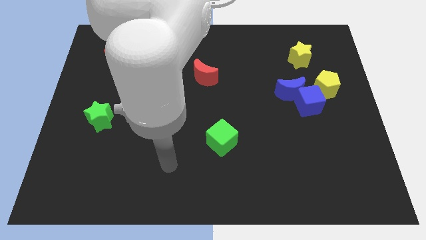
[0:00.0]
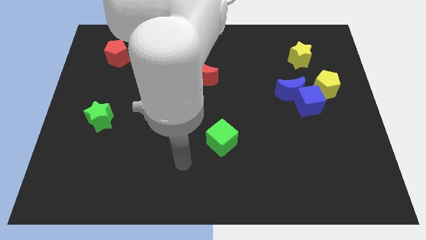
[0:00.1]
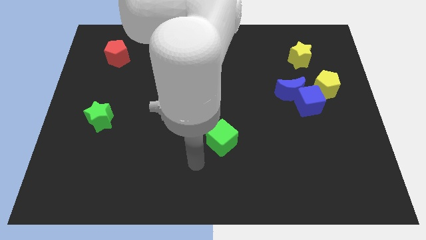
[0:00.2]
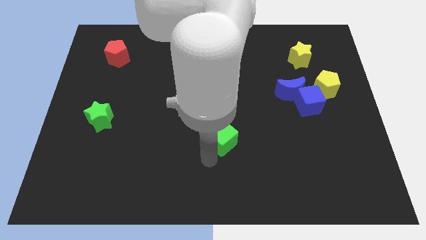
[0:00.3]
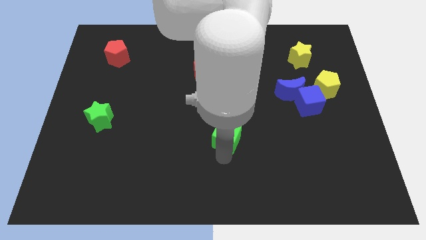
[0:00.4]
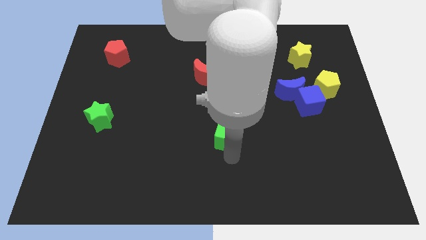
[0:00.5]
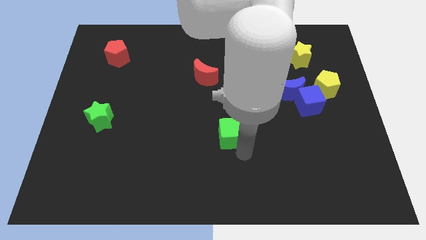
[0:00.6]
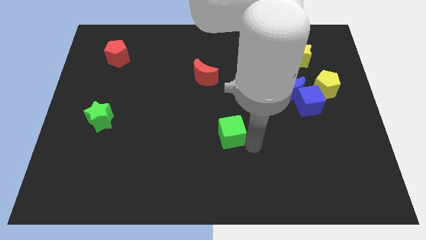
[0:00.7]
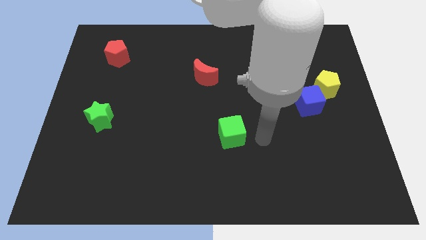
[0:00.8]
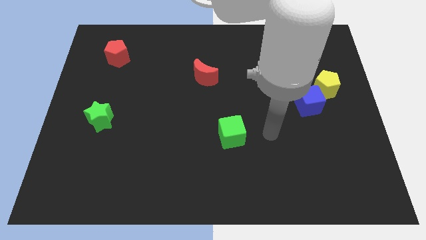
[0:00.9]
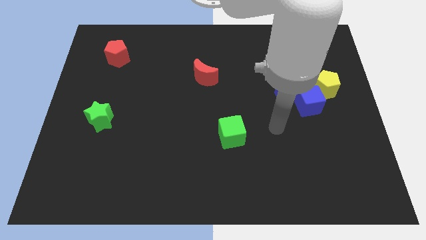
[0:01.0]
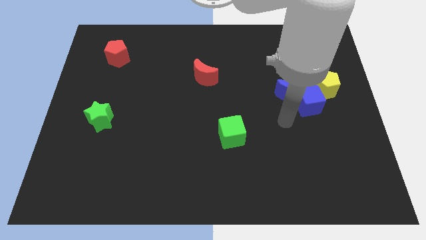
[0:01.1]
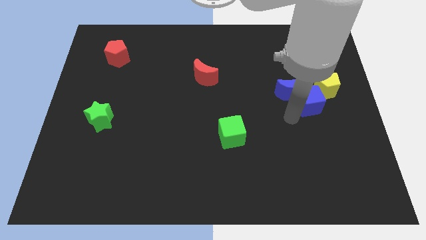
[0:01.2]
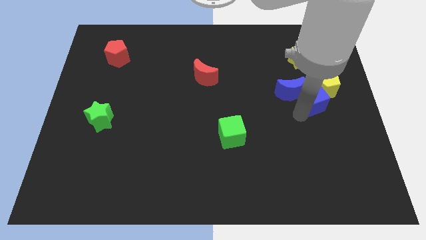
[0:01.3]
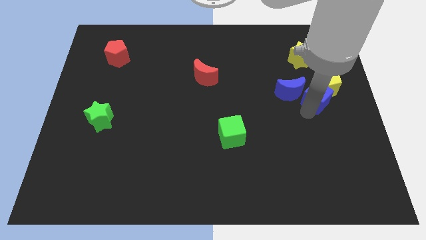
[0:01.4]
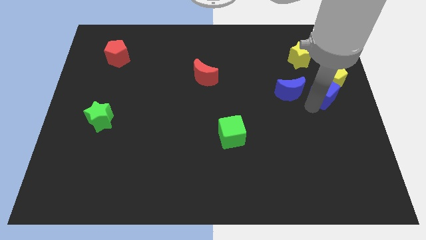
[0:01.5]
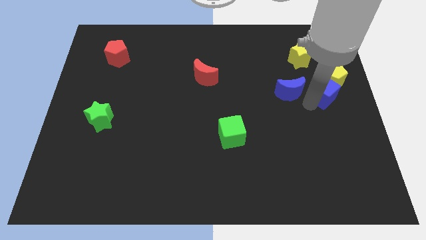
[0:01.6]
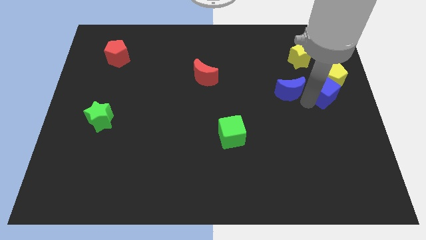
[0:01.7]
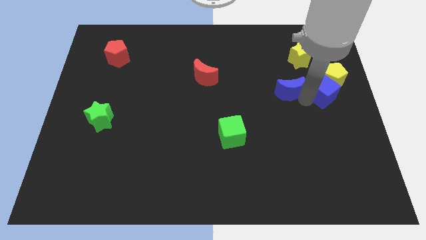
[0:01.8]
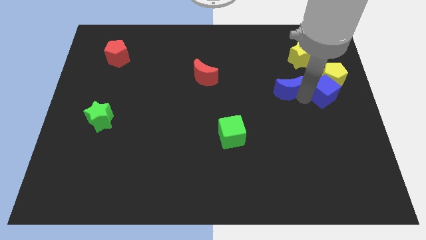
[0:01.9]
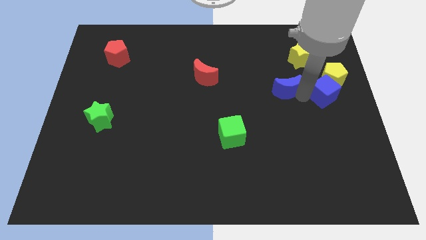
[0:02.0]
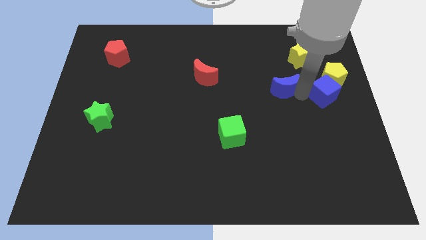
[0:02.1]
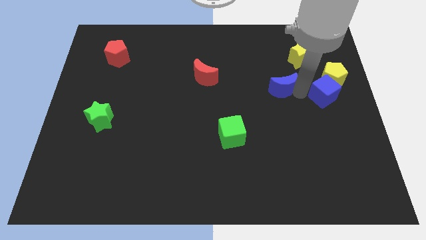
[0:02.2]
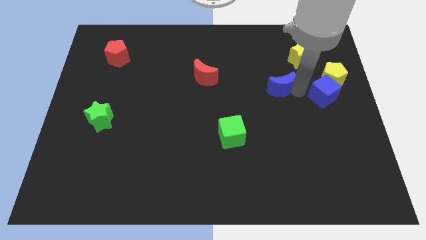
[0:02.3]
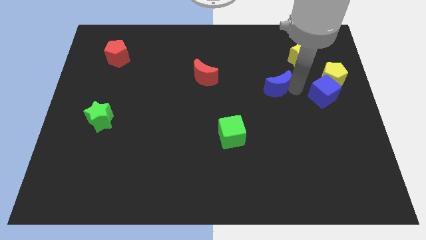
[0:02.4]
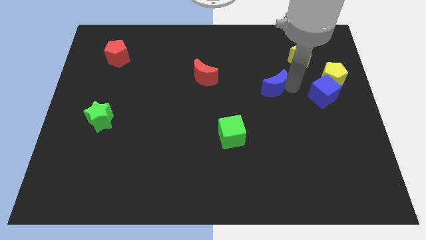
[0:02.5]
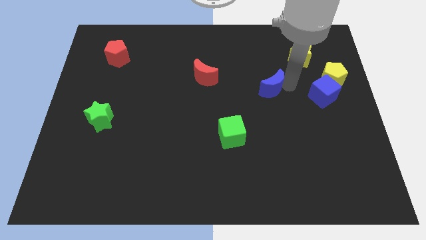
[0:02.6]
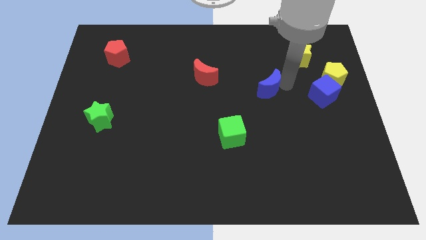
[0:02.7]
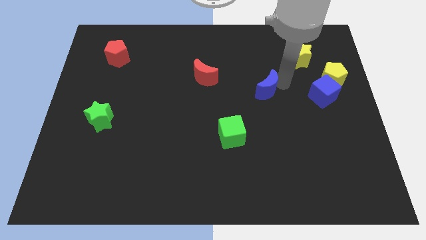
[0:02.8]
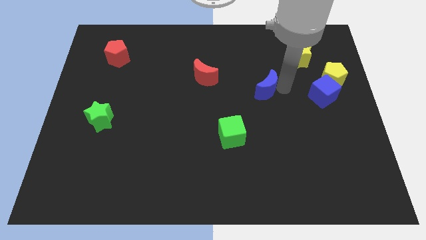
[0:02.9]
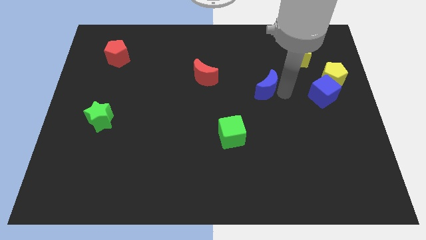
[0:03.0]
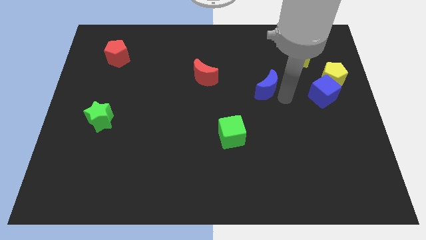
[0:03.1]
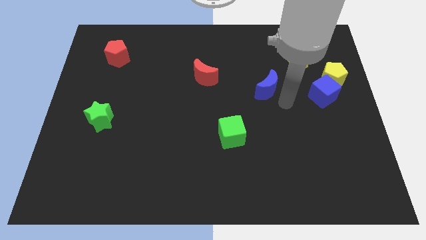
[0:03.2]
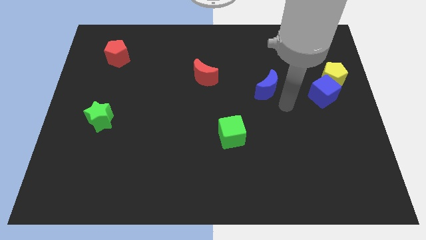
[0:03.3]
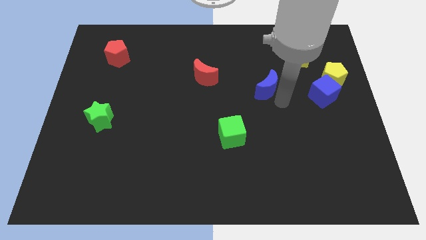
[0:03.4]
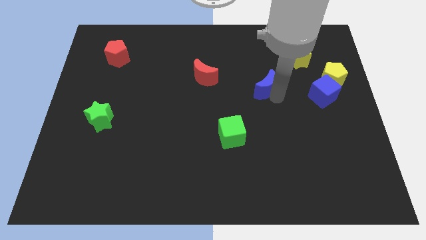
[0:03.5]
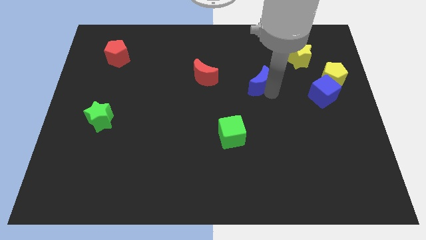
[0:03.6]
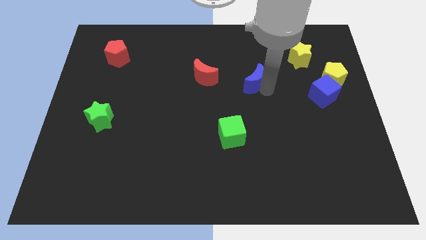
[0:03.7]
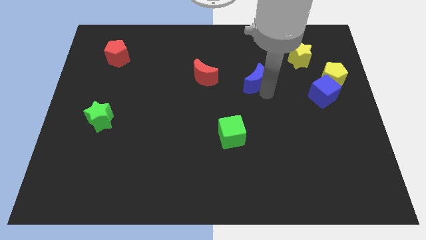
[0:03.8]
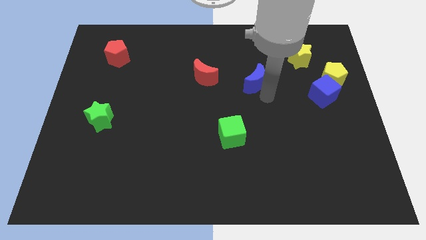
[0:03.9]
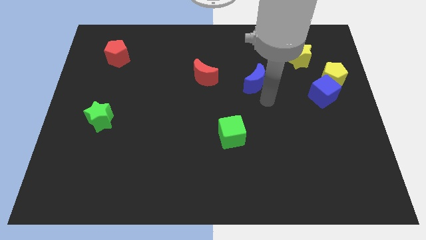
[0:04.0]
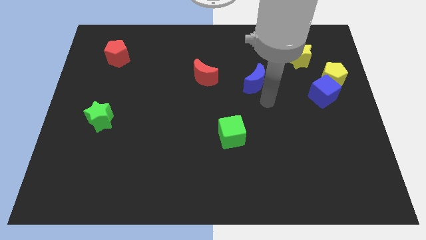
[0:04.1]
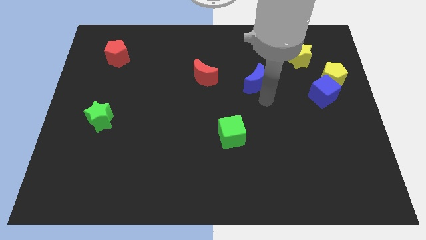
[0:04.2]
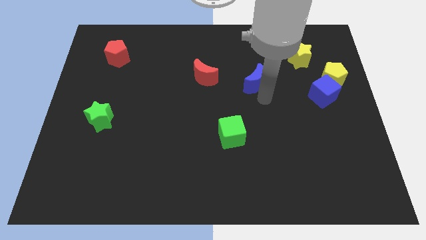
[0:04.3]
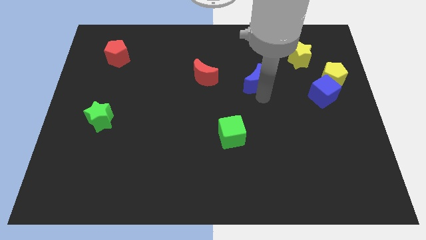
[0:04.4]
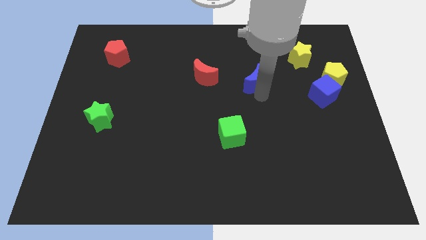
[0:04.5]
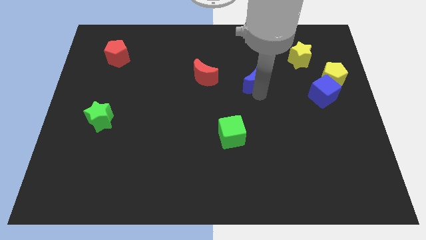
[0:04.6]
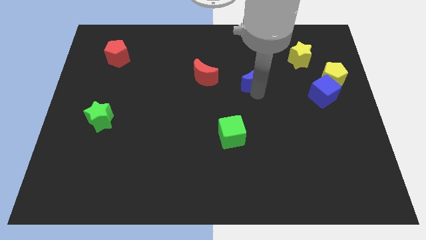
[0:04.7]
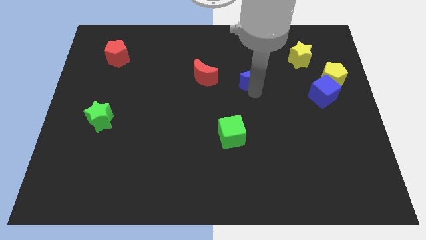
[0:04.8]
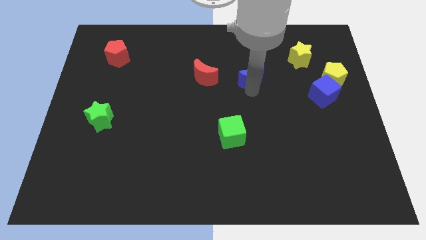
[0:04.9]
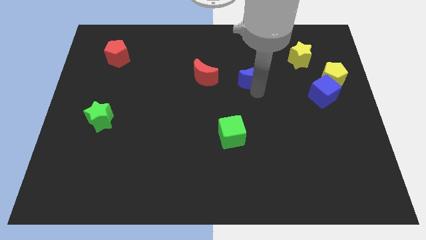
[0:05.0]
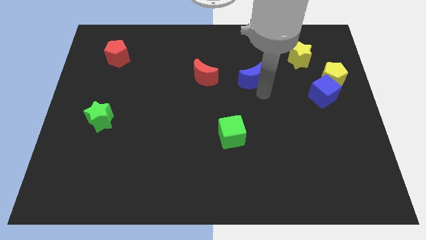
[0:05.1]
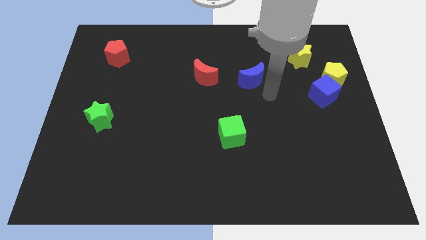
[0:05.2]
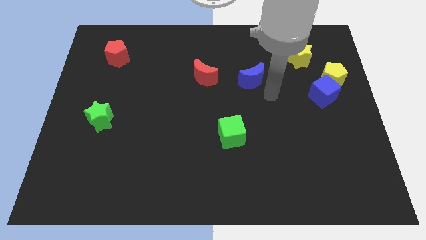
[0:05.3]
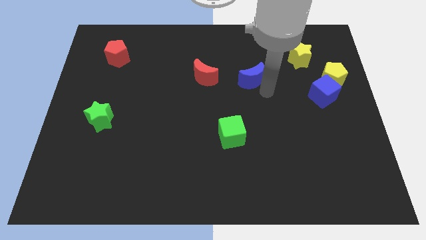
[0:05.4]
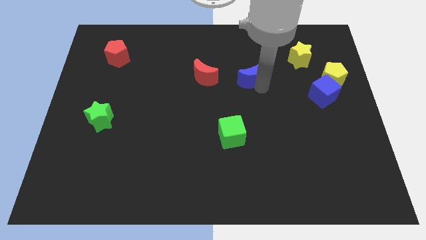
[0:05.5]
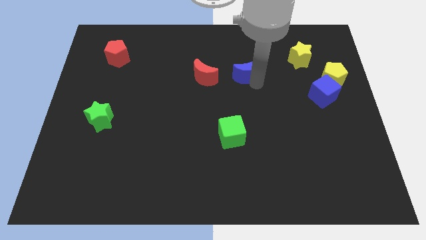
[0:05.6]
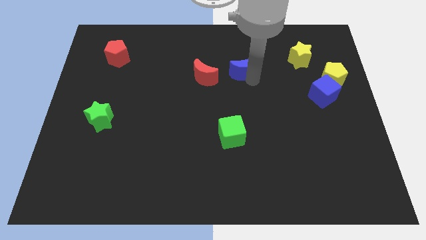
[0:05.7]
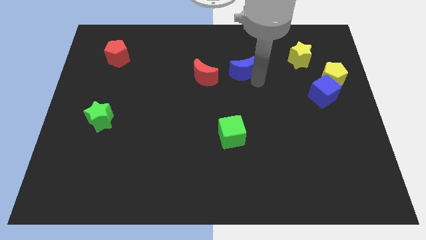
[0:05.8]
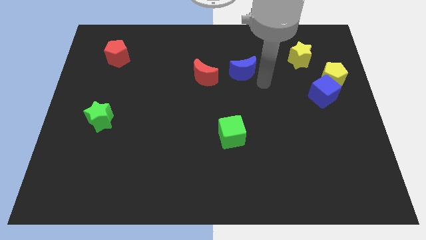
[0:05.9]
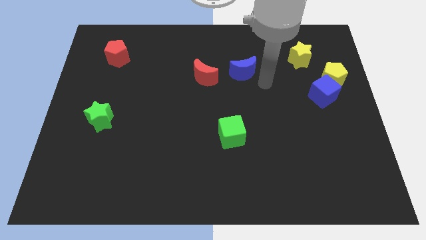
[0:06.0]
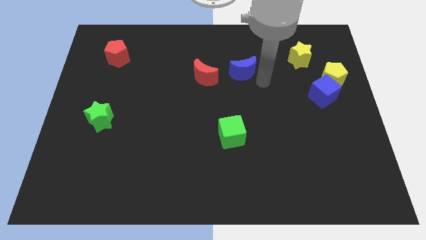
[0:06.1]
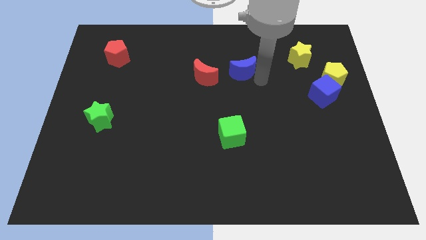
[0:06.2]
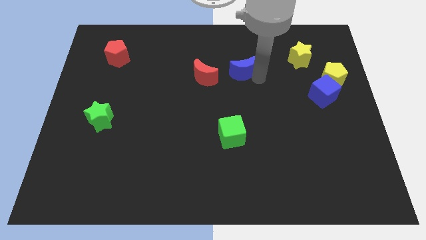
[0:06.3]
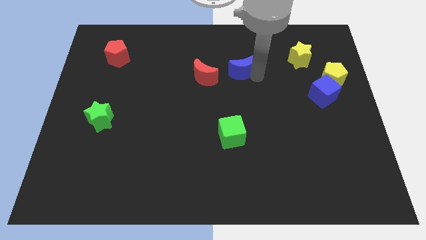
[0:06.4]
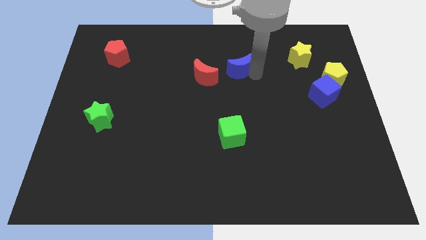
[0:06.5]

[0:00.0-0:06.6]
push the blue moon to the top right of the red moon
